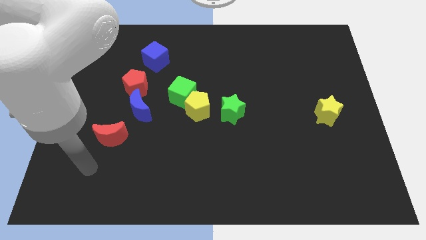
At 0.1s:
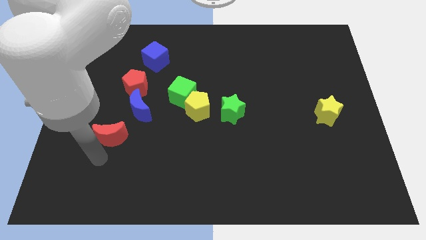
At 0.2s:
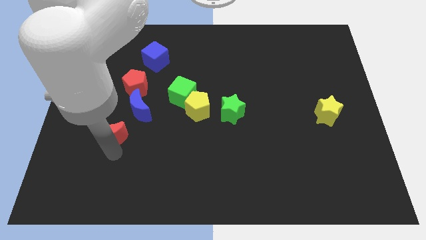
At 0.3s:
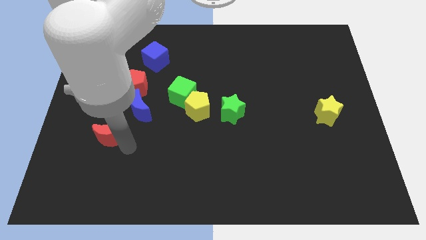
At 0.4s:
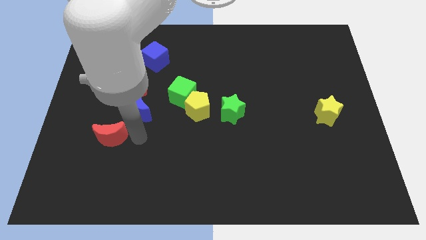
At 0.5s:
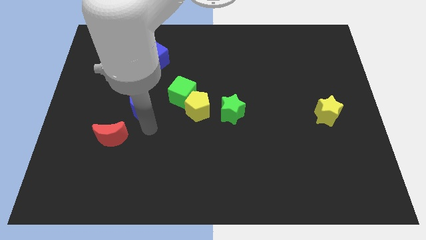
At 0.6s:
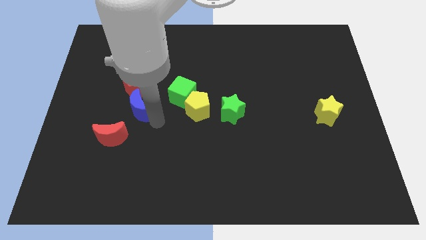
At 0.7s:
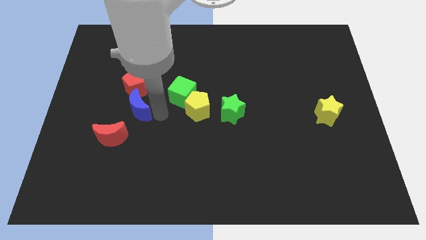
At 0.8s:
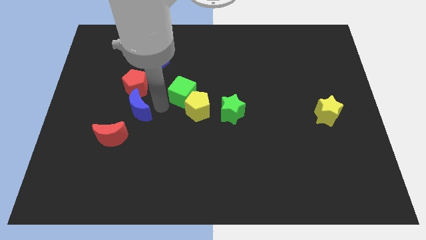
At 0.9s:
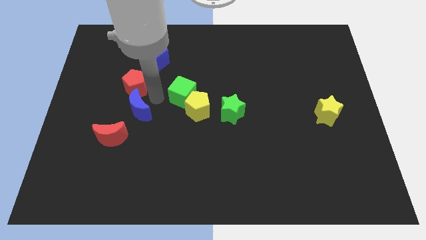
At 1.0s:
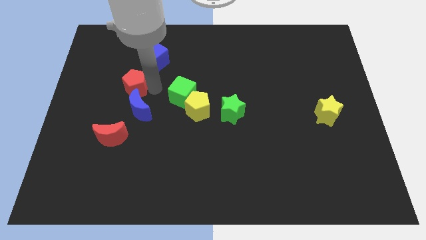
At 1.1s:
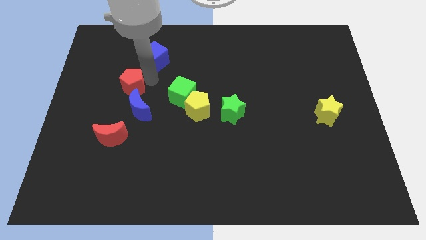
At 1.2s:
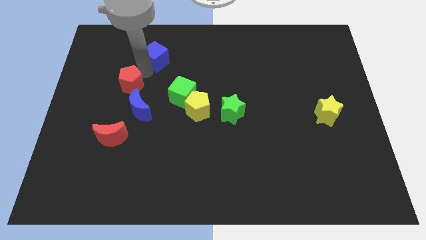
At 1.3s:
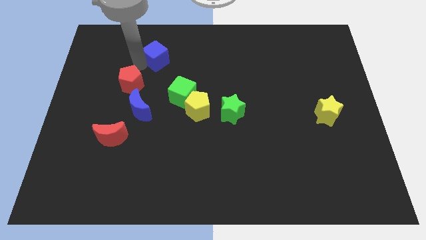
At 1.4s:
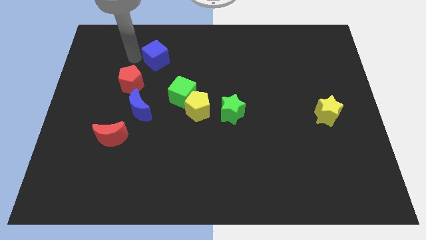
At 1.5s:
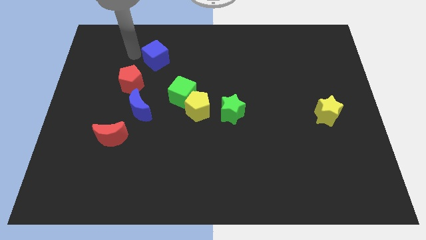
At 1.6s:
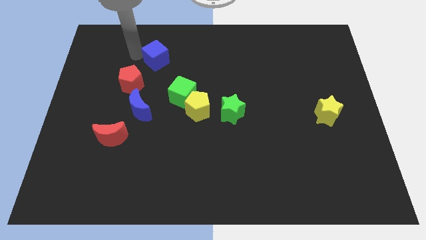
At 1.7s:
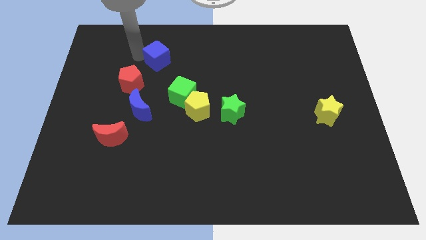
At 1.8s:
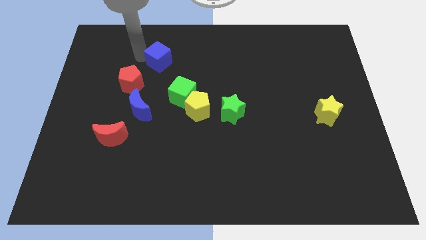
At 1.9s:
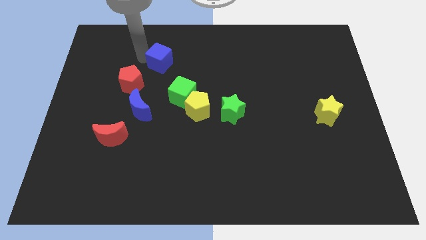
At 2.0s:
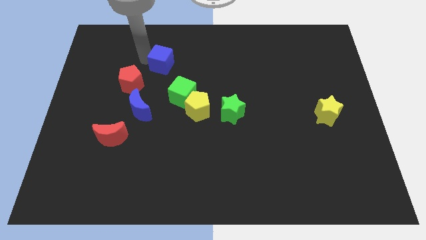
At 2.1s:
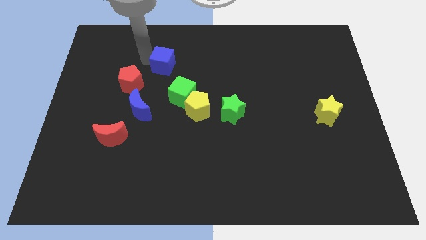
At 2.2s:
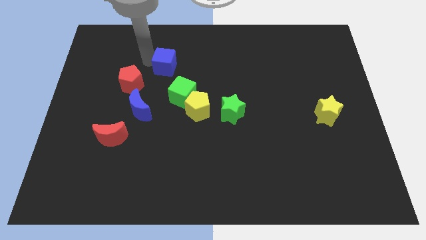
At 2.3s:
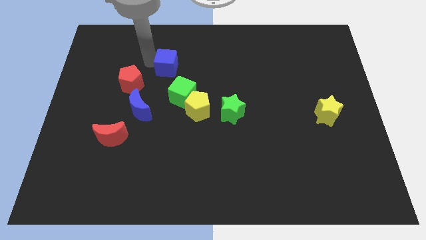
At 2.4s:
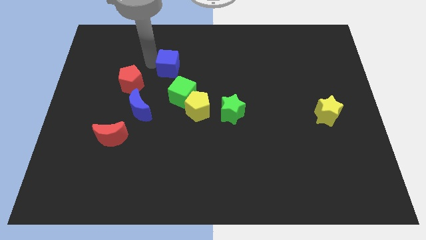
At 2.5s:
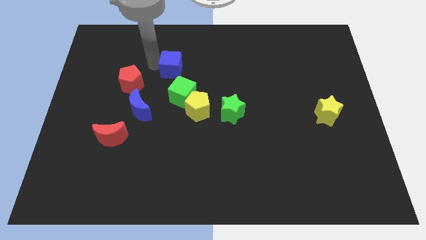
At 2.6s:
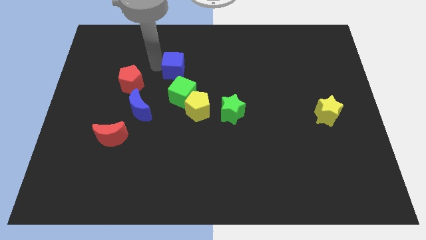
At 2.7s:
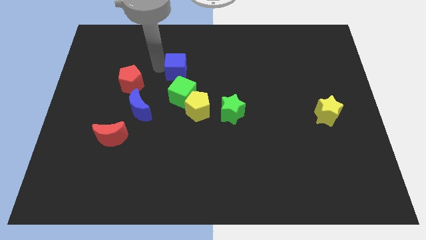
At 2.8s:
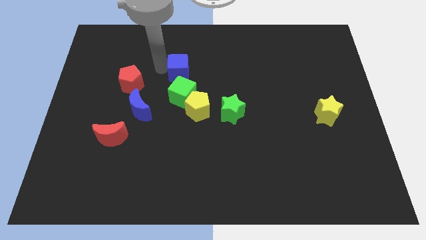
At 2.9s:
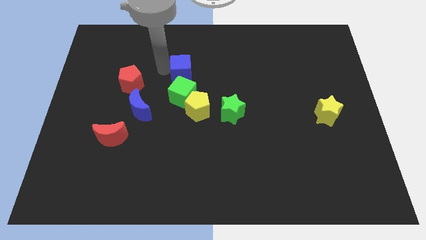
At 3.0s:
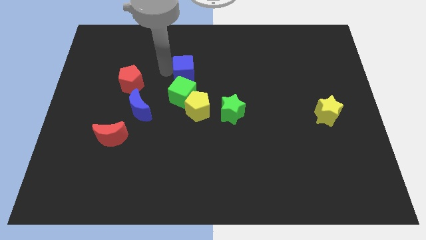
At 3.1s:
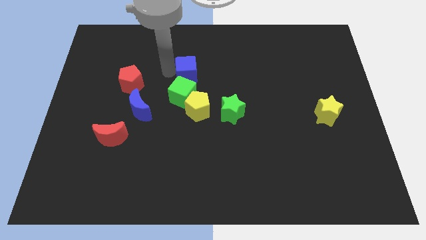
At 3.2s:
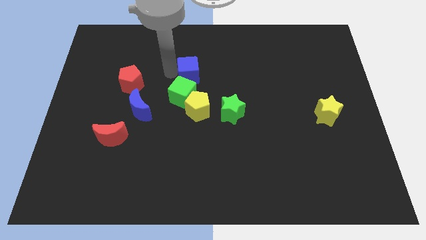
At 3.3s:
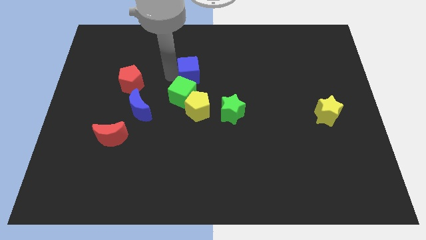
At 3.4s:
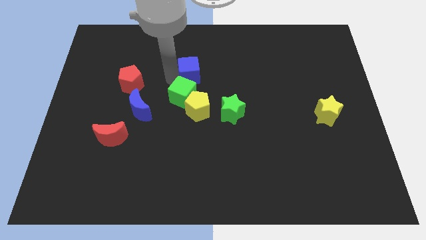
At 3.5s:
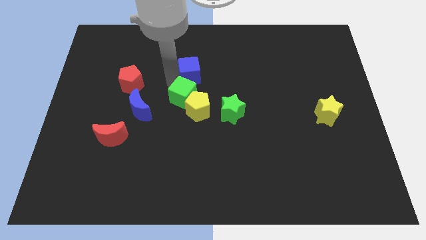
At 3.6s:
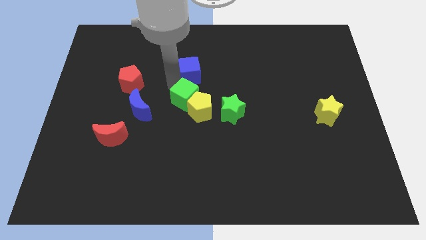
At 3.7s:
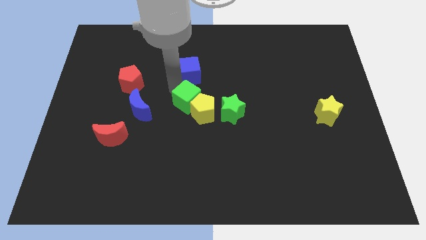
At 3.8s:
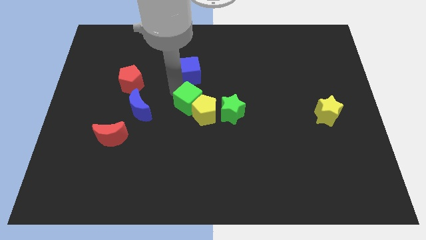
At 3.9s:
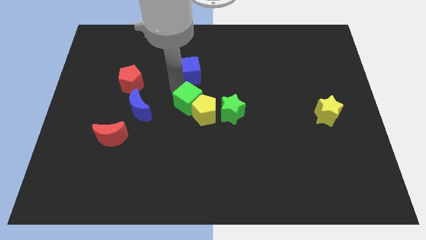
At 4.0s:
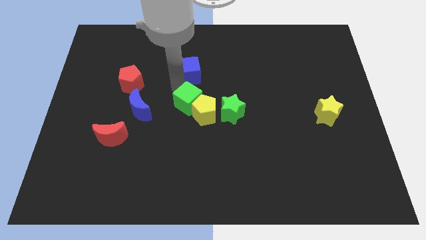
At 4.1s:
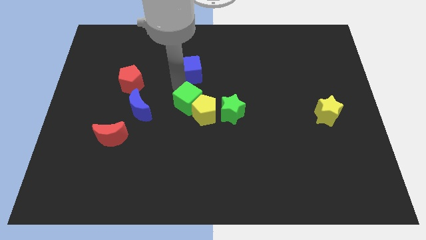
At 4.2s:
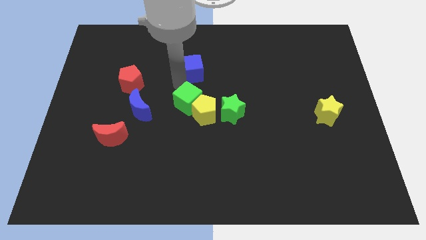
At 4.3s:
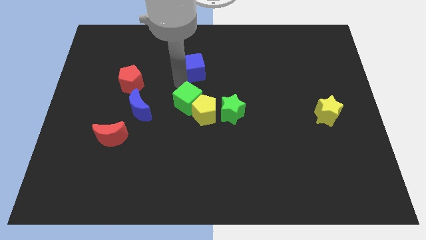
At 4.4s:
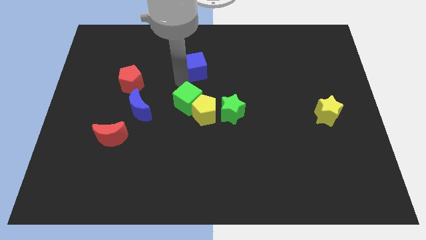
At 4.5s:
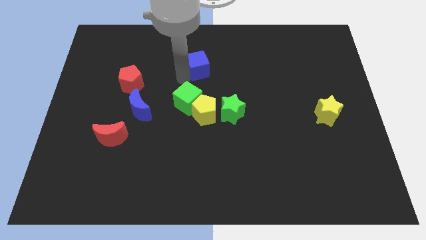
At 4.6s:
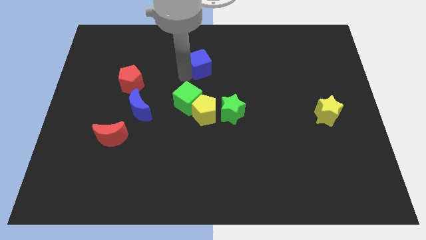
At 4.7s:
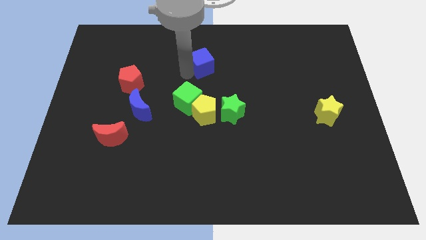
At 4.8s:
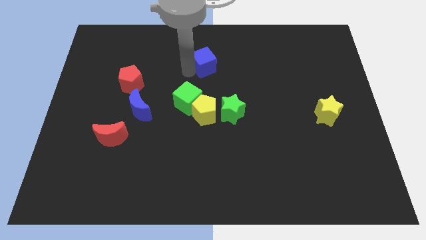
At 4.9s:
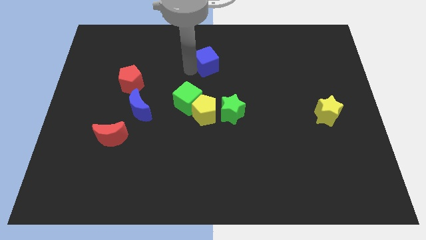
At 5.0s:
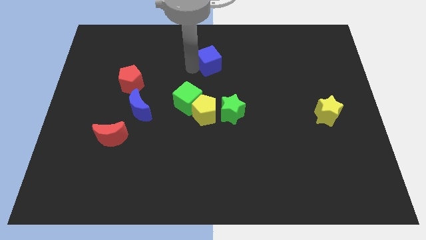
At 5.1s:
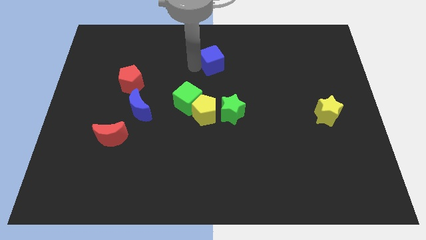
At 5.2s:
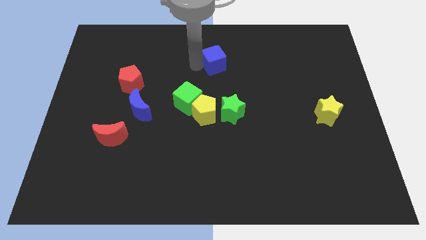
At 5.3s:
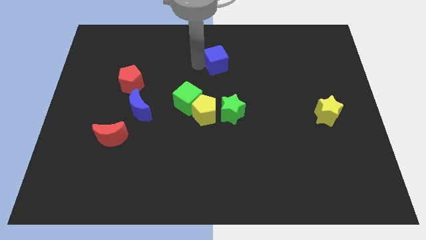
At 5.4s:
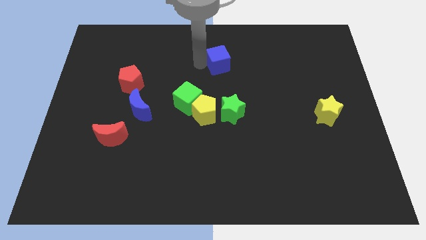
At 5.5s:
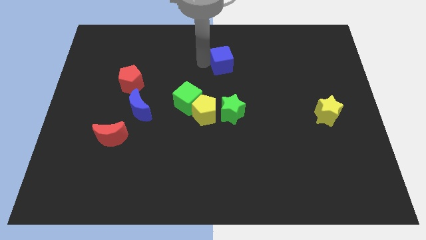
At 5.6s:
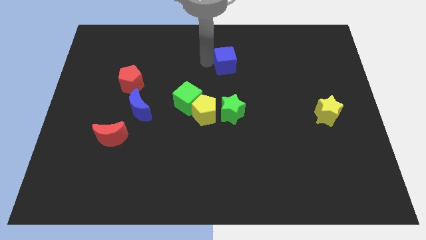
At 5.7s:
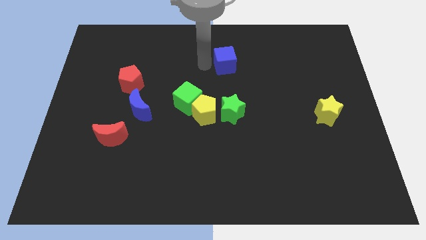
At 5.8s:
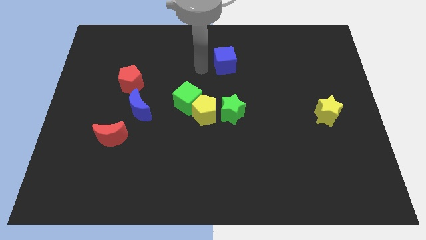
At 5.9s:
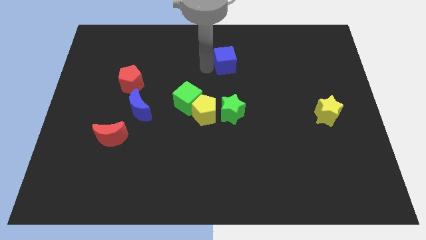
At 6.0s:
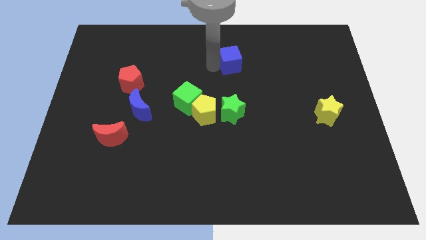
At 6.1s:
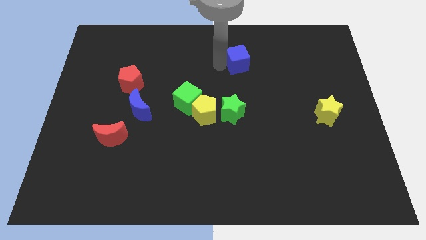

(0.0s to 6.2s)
push the blue cube right

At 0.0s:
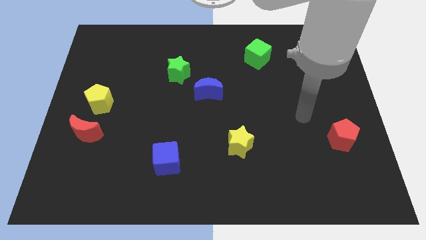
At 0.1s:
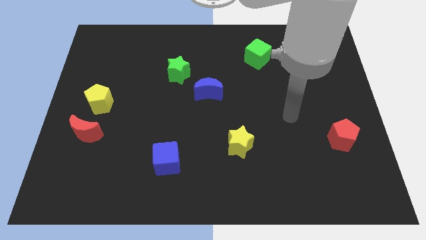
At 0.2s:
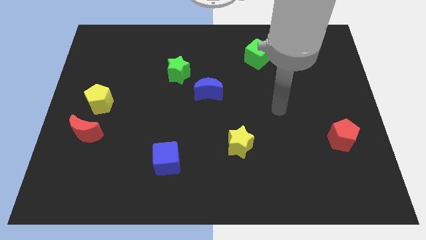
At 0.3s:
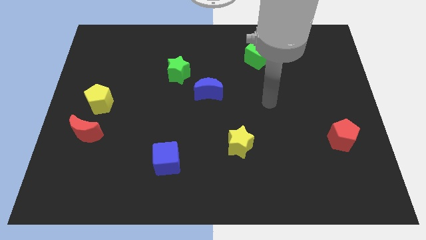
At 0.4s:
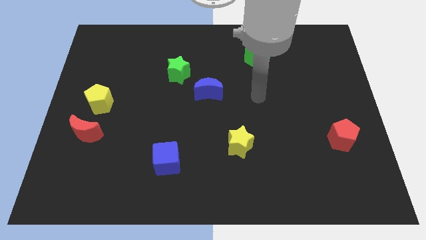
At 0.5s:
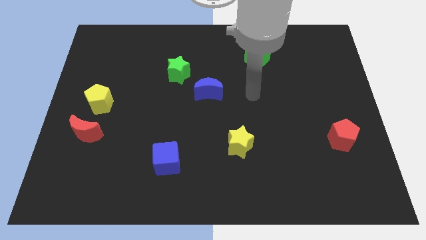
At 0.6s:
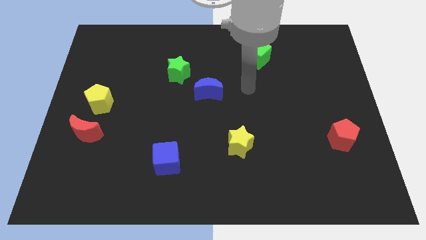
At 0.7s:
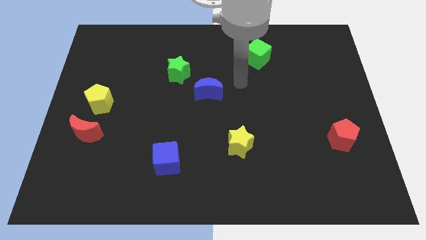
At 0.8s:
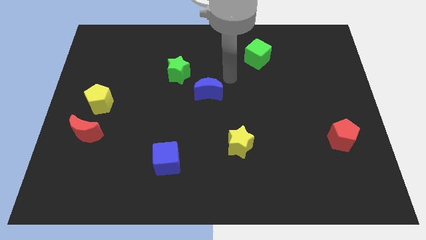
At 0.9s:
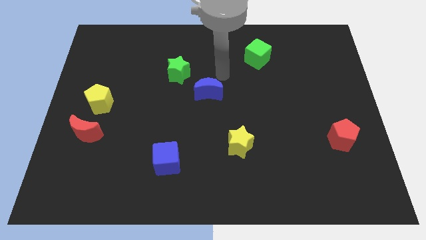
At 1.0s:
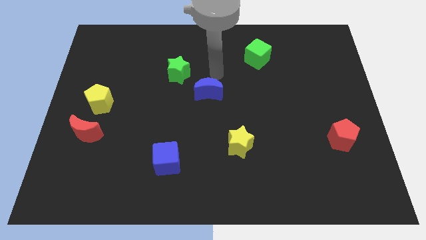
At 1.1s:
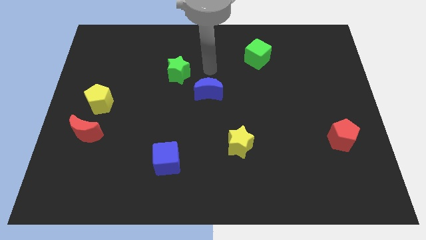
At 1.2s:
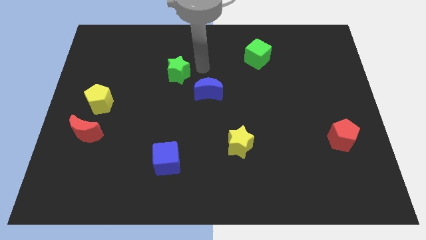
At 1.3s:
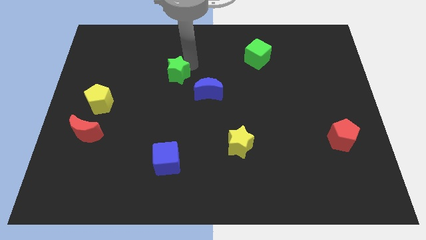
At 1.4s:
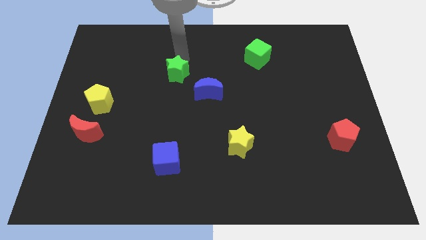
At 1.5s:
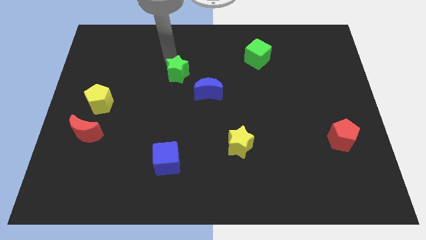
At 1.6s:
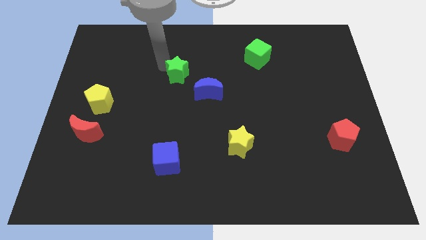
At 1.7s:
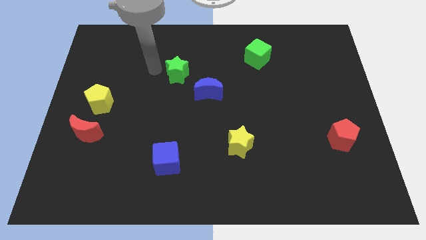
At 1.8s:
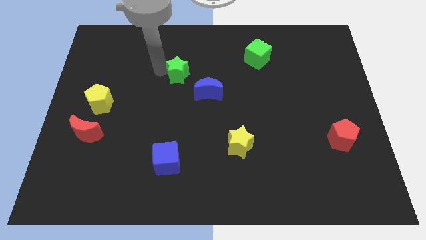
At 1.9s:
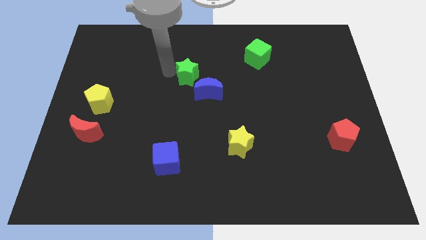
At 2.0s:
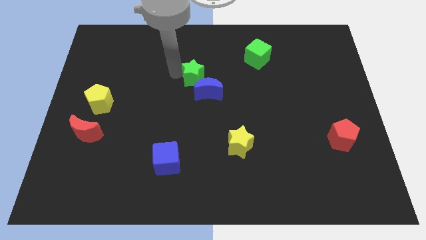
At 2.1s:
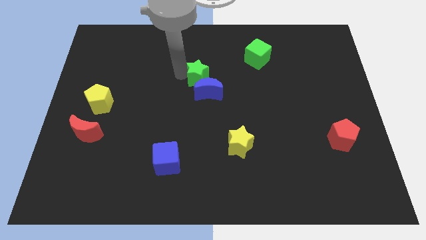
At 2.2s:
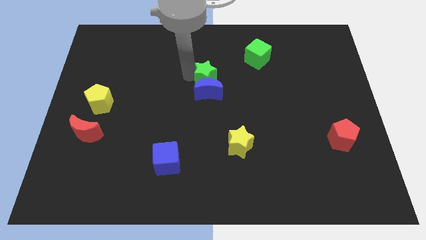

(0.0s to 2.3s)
push the green star a bit right
